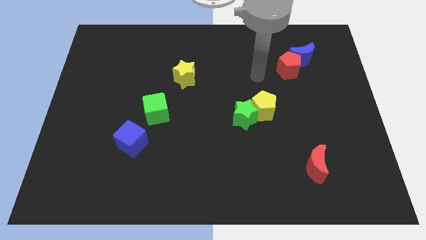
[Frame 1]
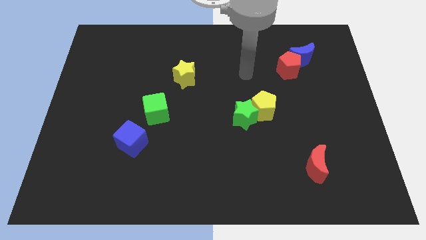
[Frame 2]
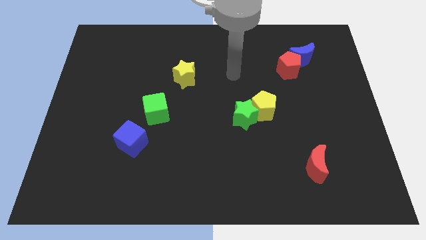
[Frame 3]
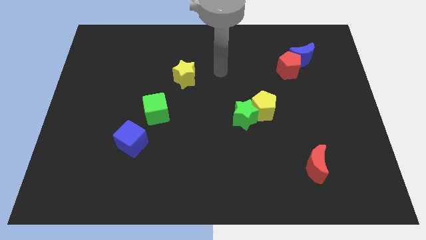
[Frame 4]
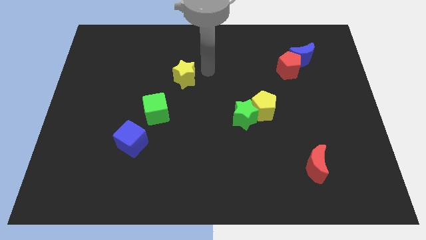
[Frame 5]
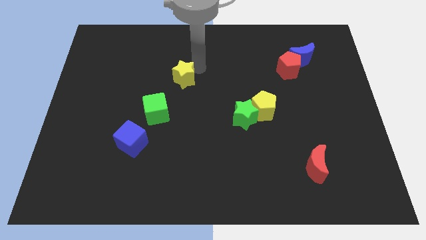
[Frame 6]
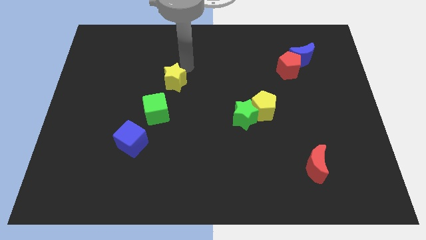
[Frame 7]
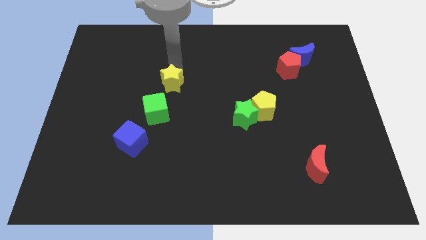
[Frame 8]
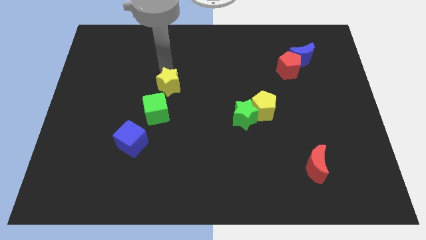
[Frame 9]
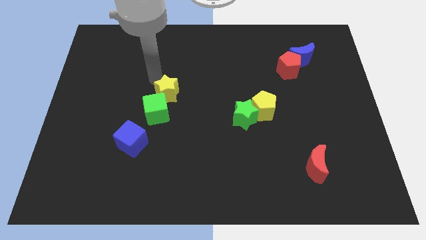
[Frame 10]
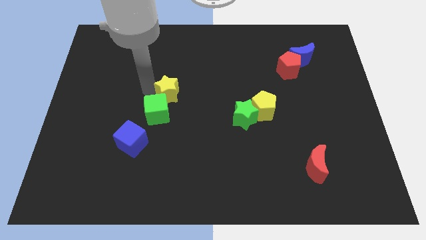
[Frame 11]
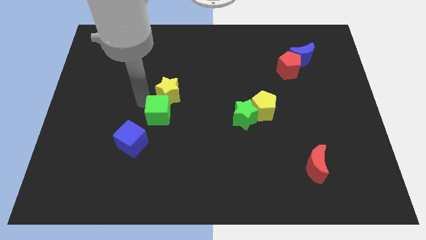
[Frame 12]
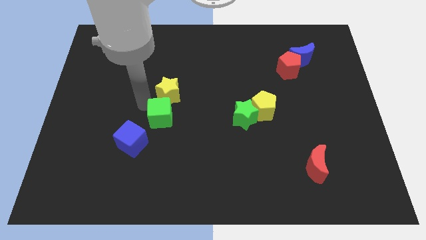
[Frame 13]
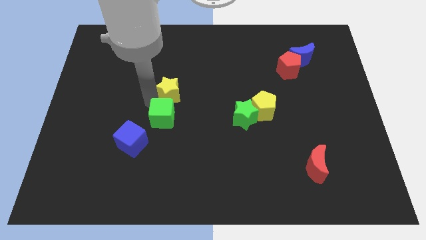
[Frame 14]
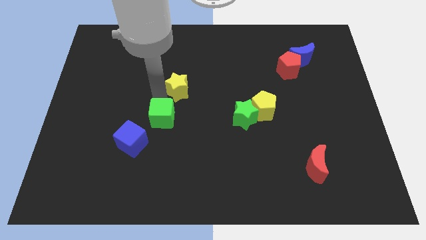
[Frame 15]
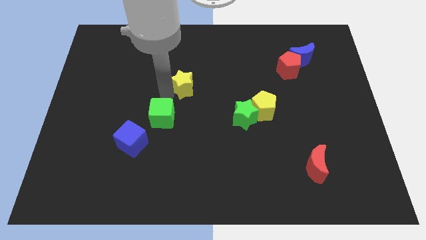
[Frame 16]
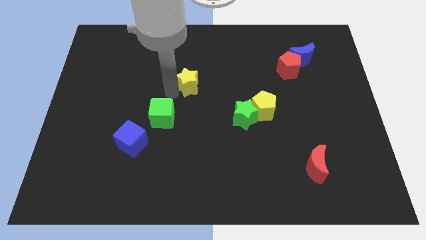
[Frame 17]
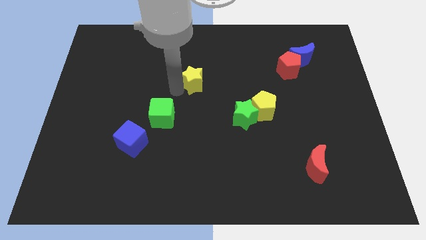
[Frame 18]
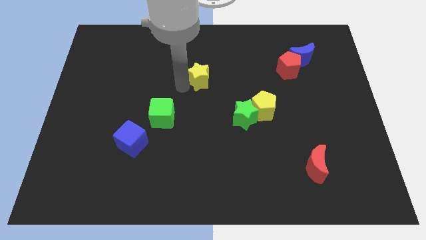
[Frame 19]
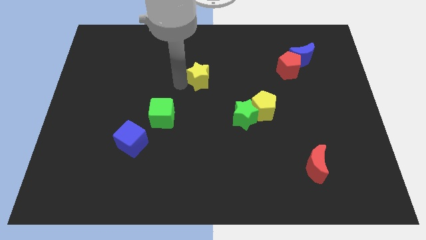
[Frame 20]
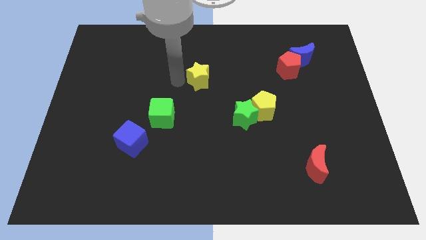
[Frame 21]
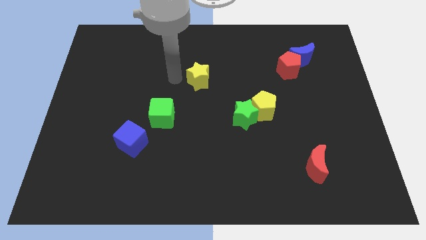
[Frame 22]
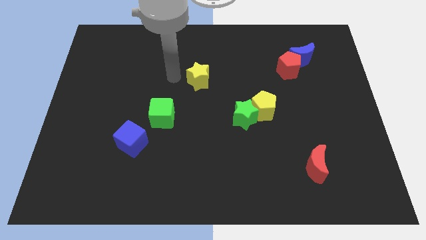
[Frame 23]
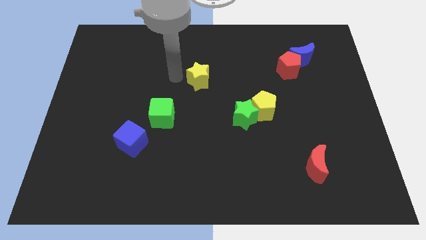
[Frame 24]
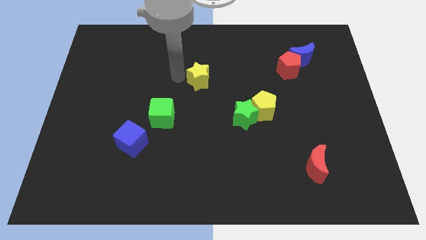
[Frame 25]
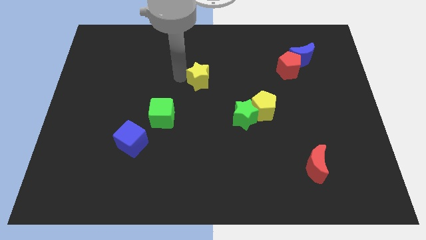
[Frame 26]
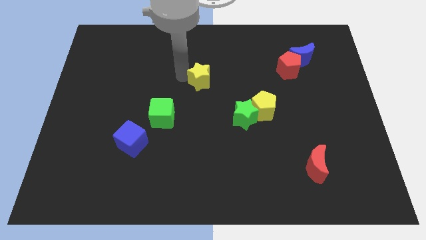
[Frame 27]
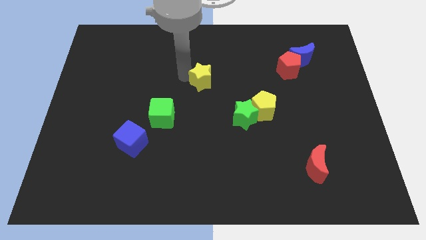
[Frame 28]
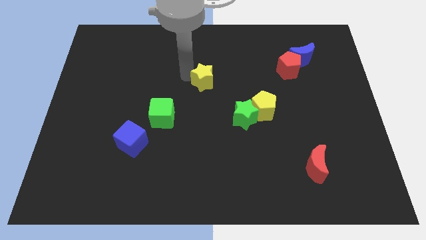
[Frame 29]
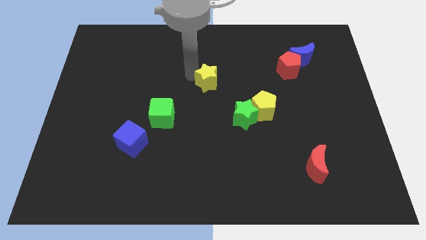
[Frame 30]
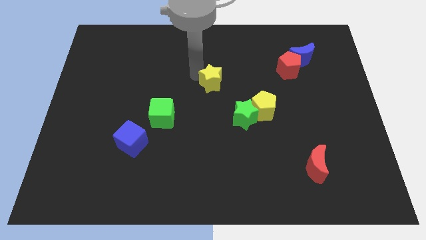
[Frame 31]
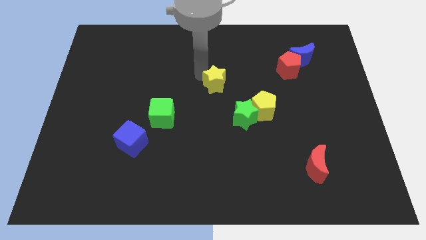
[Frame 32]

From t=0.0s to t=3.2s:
slightly slide the yellow star to the right

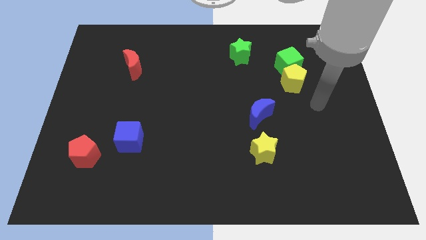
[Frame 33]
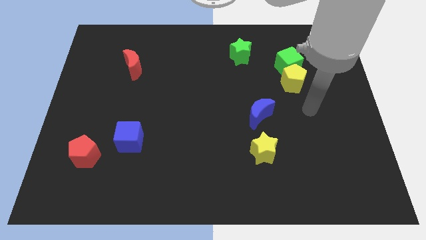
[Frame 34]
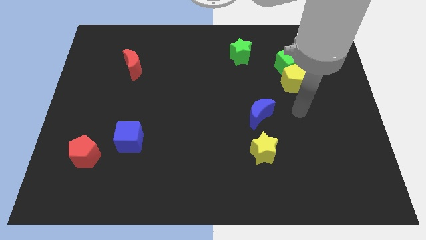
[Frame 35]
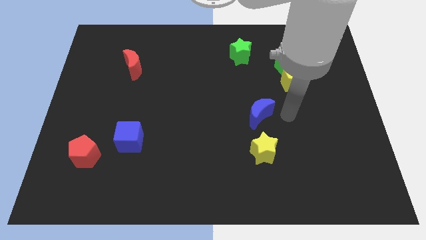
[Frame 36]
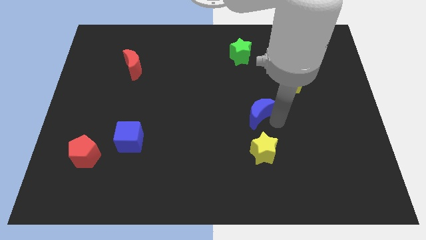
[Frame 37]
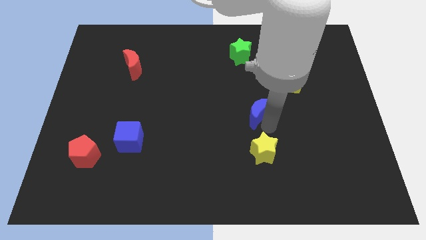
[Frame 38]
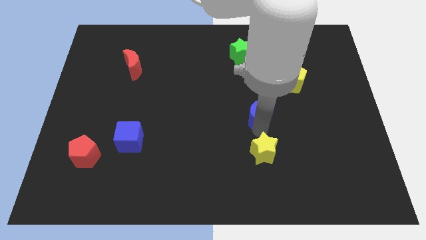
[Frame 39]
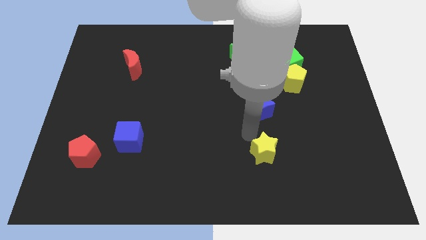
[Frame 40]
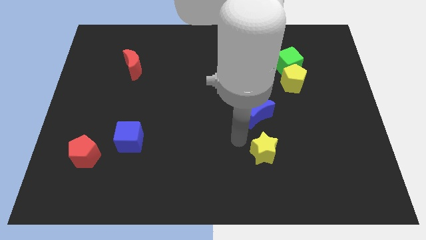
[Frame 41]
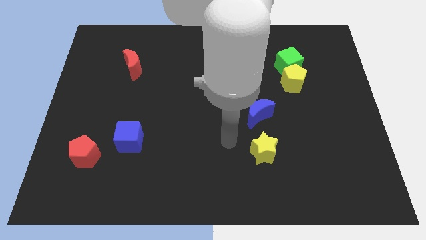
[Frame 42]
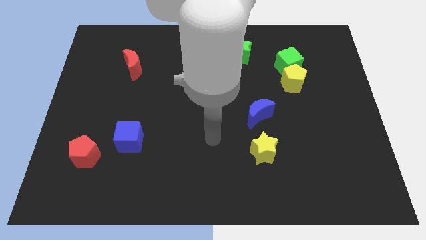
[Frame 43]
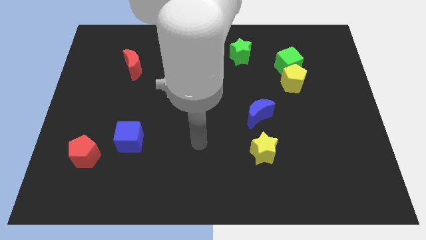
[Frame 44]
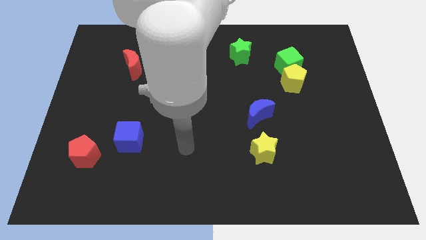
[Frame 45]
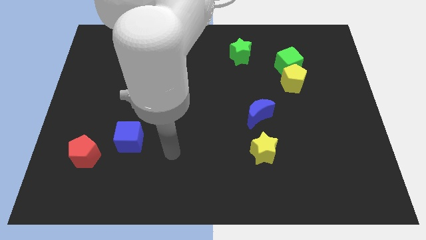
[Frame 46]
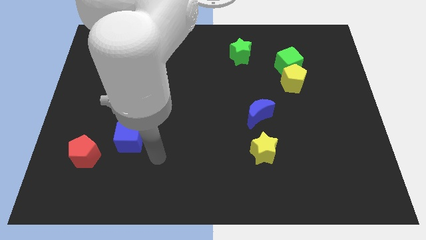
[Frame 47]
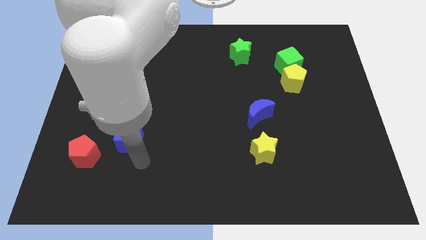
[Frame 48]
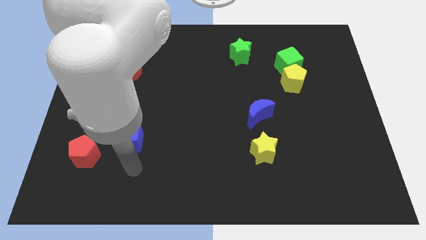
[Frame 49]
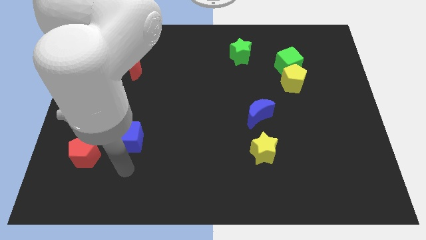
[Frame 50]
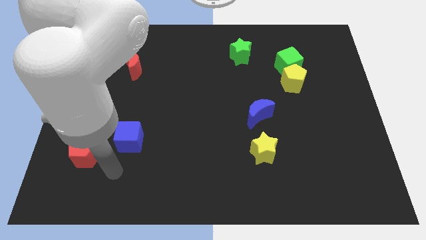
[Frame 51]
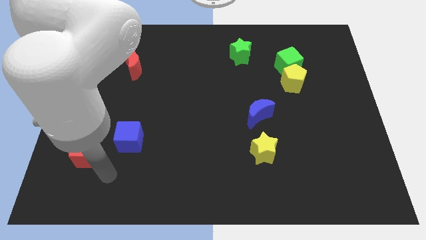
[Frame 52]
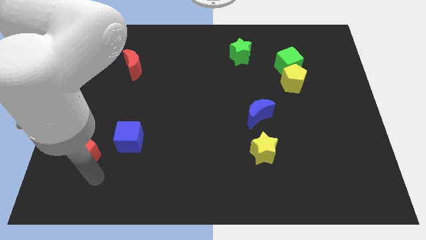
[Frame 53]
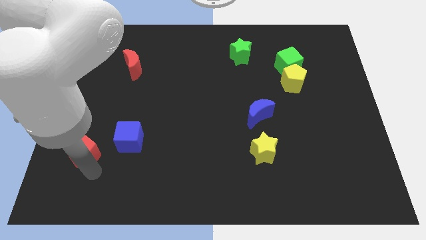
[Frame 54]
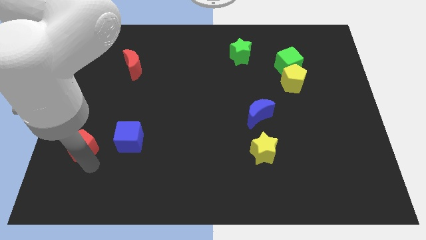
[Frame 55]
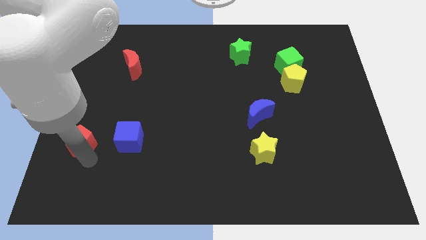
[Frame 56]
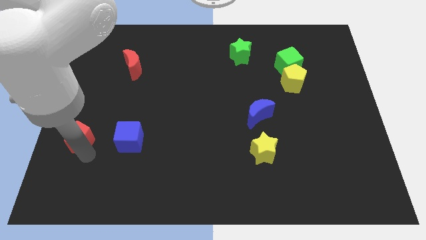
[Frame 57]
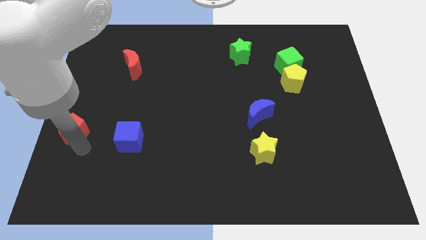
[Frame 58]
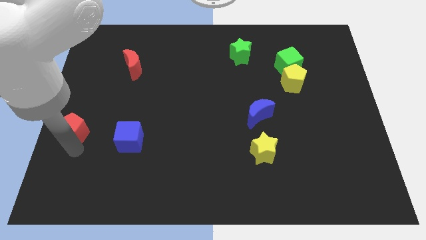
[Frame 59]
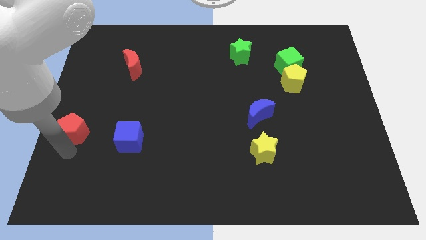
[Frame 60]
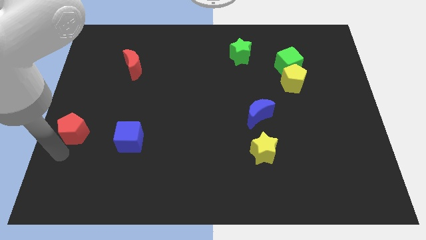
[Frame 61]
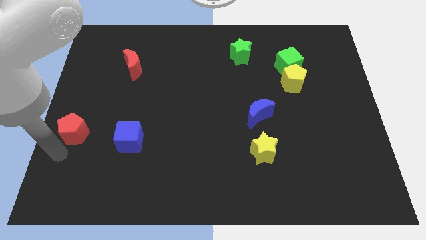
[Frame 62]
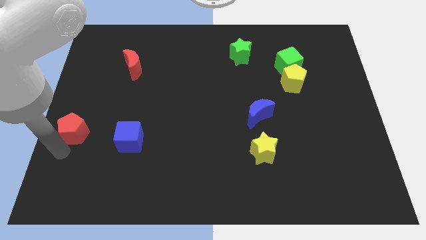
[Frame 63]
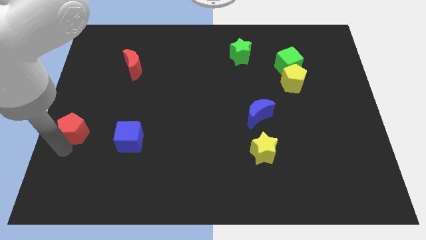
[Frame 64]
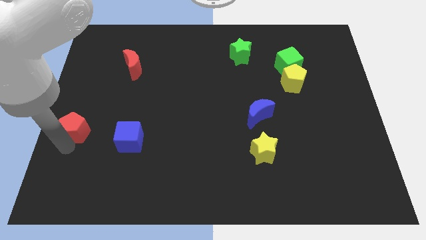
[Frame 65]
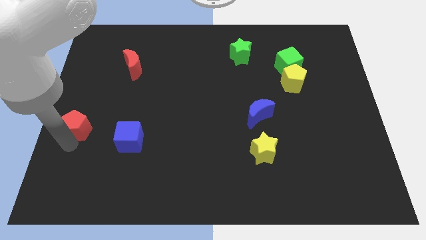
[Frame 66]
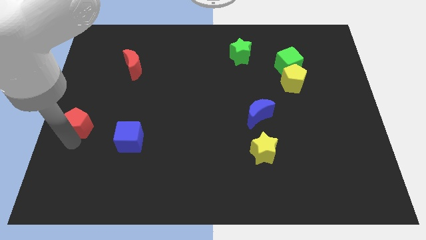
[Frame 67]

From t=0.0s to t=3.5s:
move the red pentagon upwards slightly

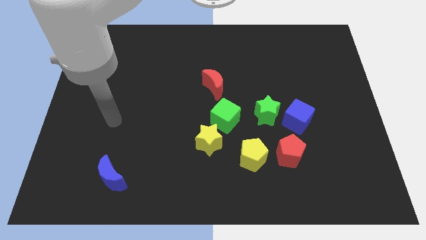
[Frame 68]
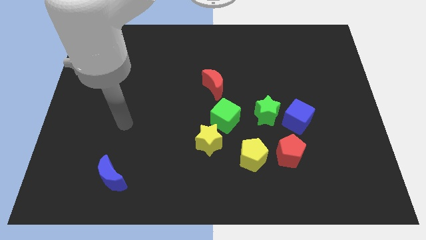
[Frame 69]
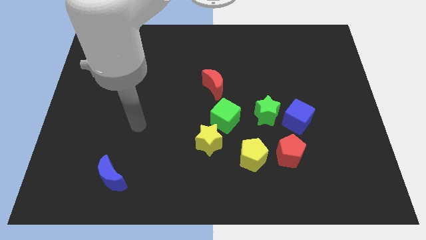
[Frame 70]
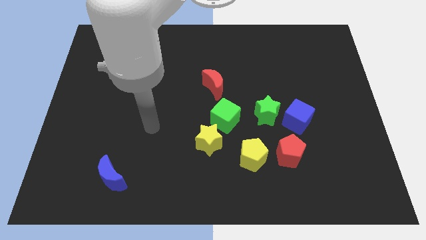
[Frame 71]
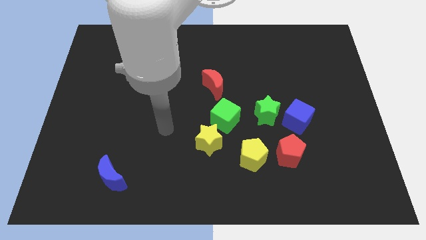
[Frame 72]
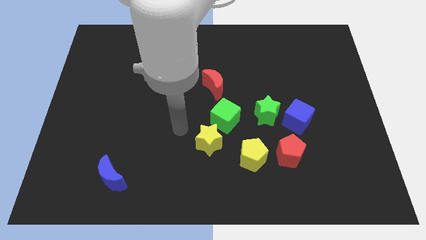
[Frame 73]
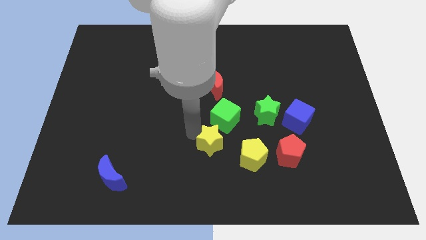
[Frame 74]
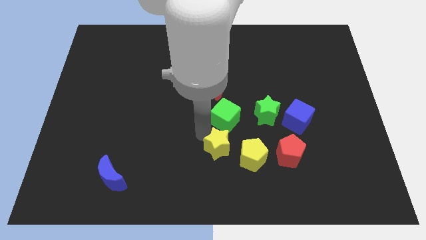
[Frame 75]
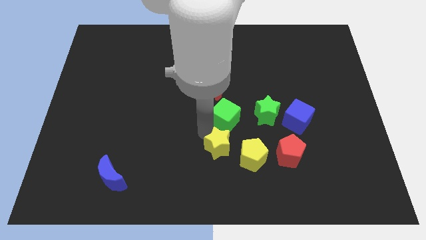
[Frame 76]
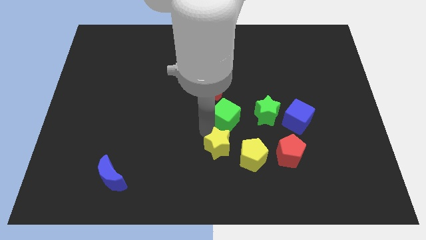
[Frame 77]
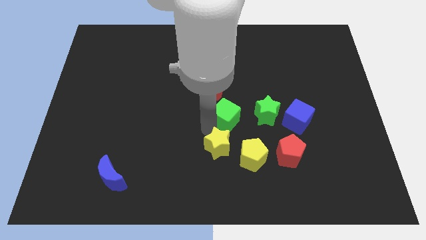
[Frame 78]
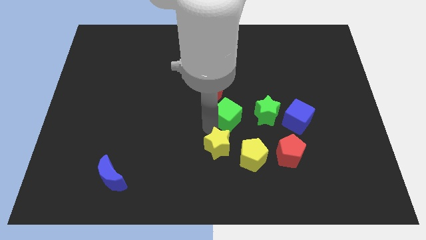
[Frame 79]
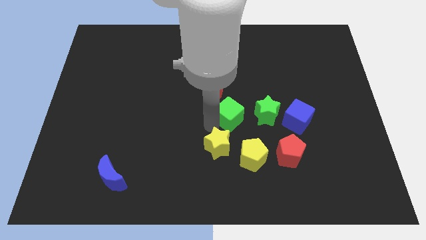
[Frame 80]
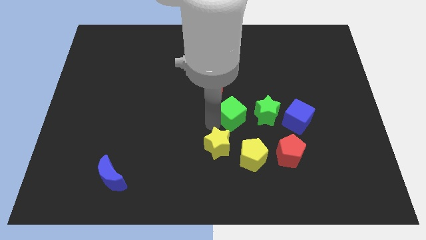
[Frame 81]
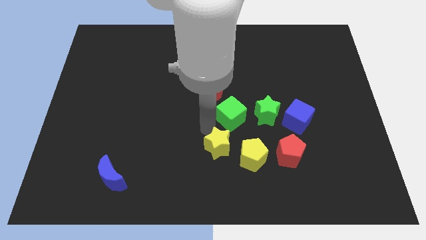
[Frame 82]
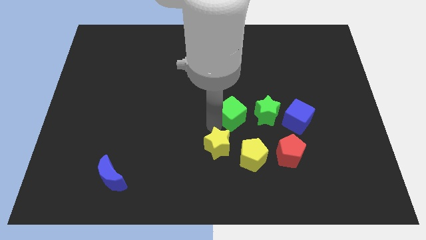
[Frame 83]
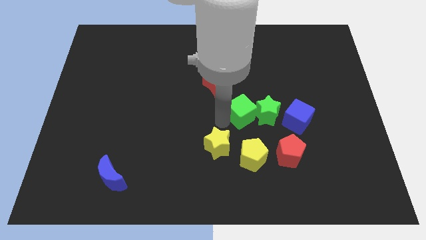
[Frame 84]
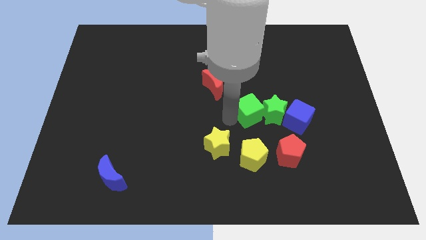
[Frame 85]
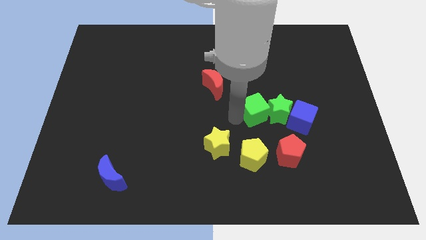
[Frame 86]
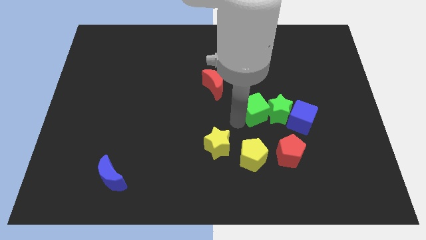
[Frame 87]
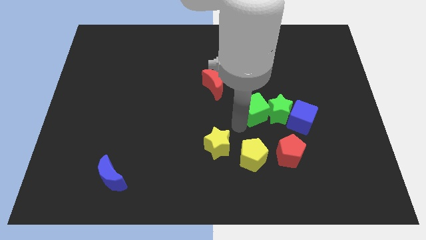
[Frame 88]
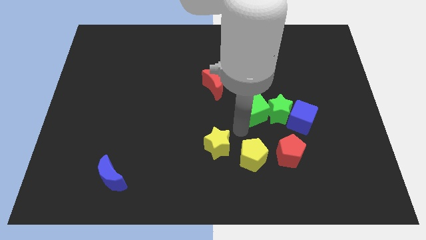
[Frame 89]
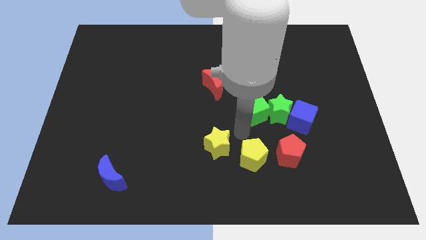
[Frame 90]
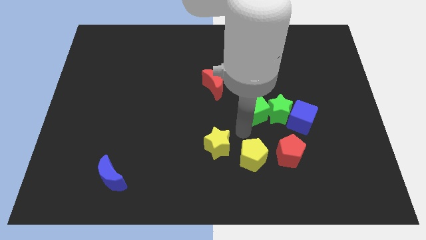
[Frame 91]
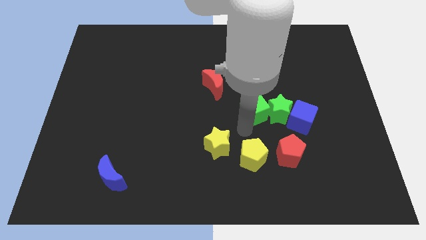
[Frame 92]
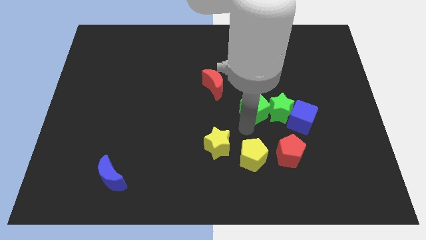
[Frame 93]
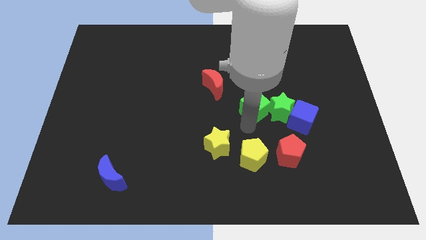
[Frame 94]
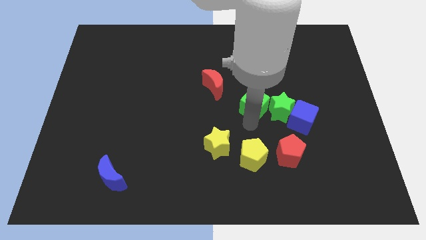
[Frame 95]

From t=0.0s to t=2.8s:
slide the green cube somewhat diagonally up and right
